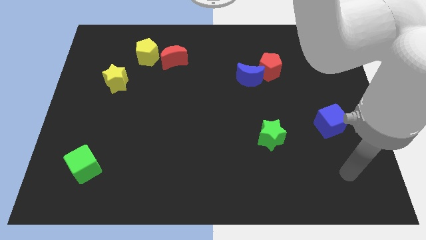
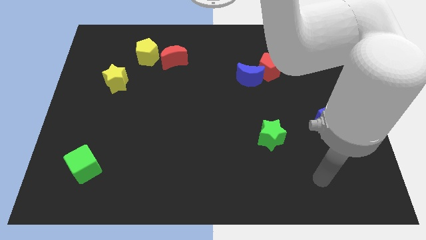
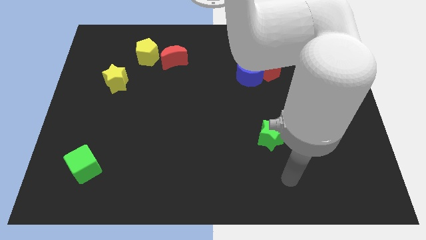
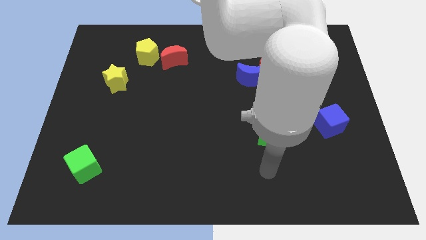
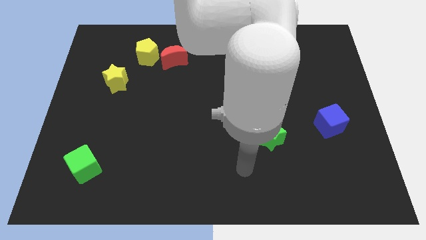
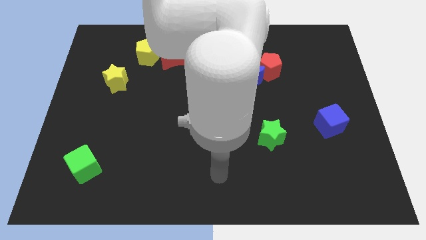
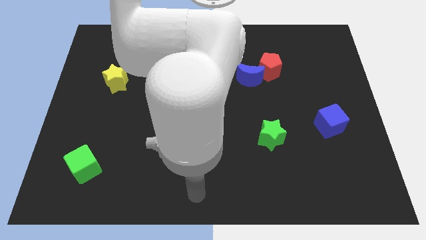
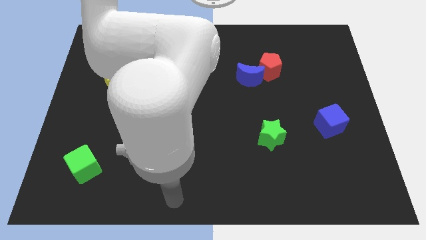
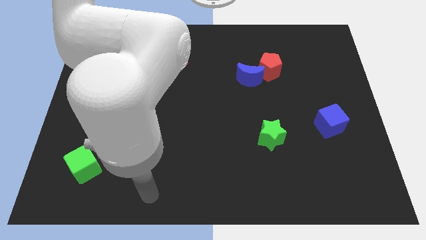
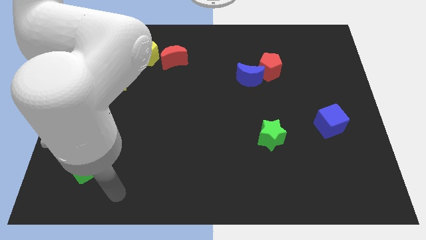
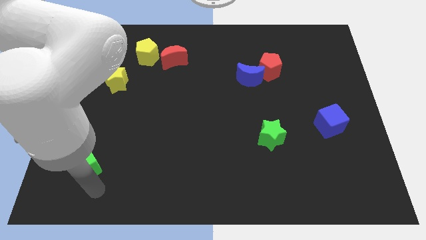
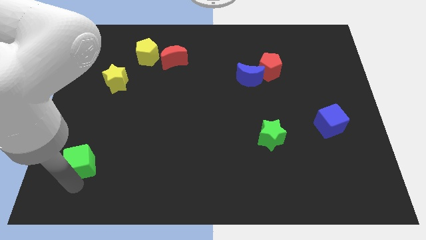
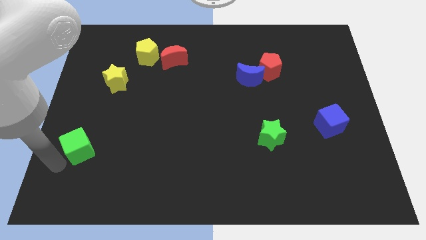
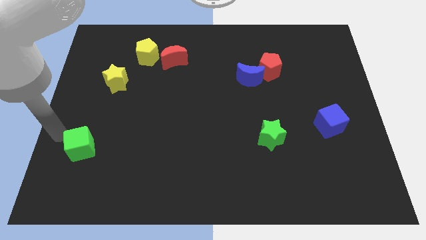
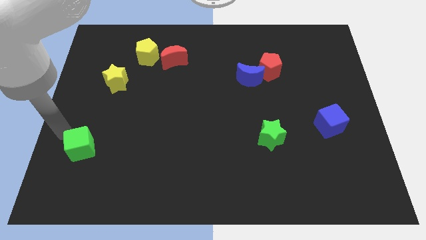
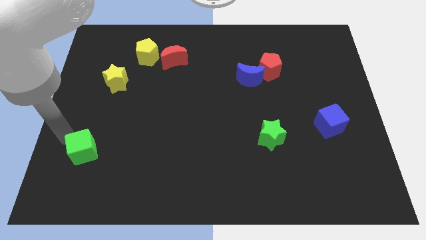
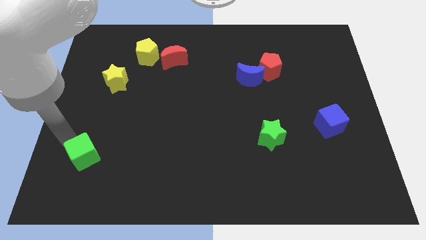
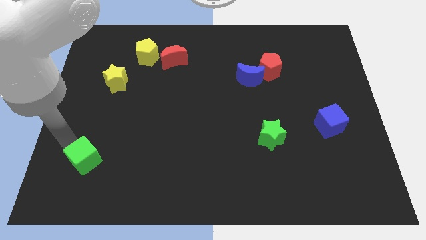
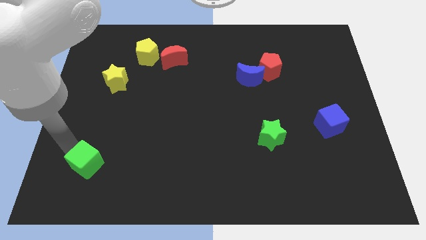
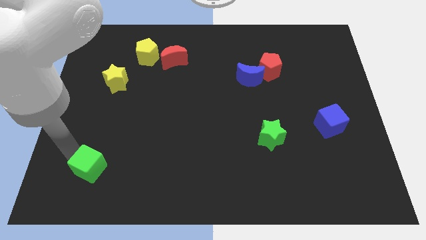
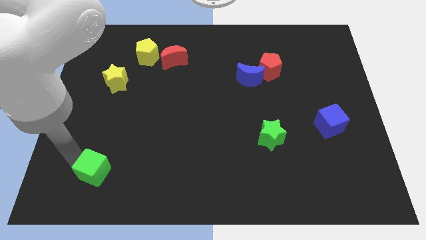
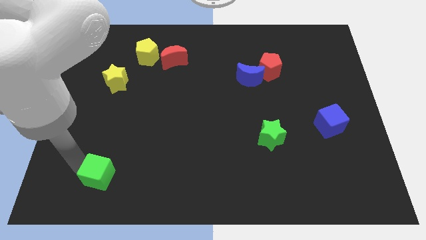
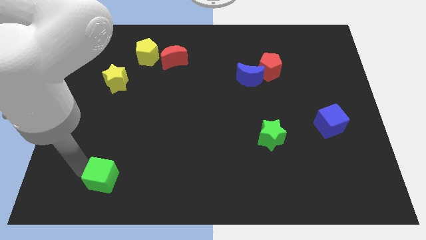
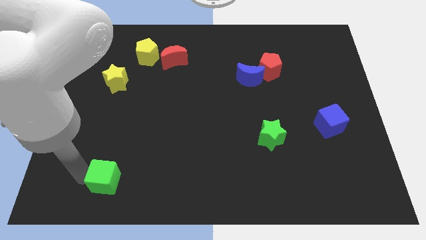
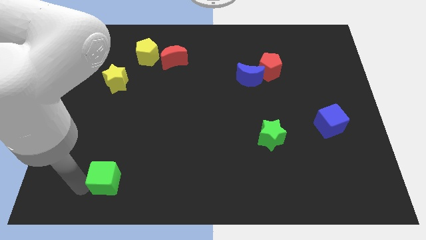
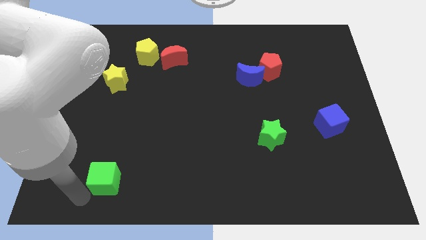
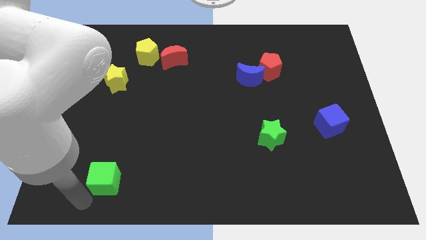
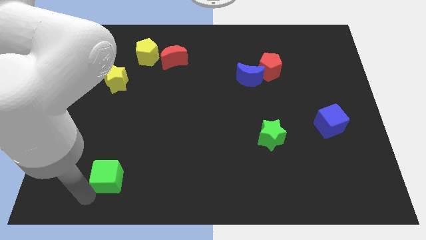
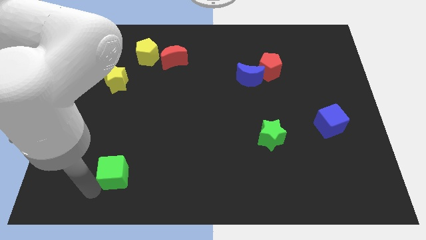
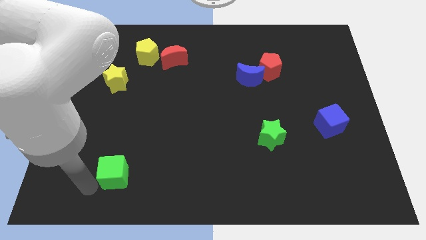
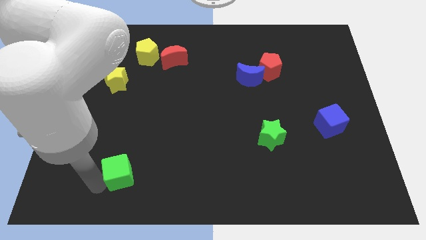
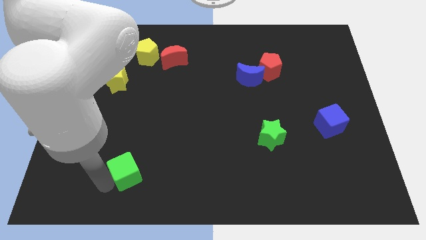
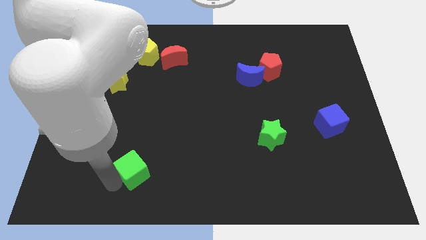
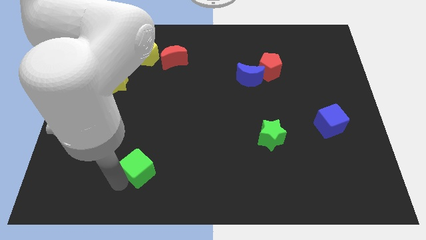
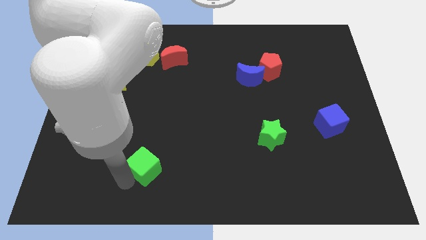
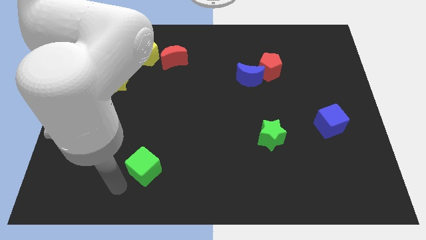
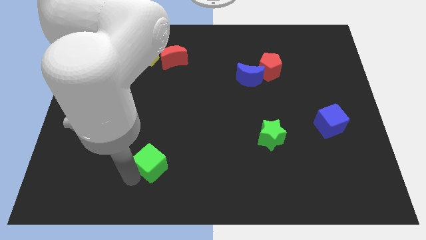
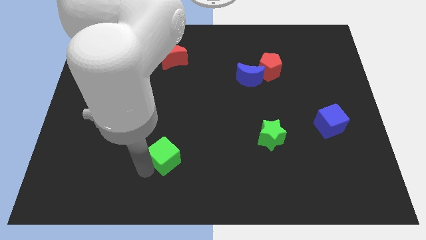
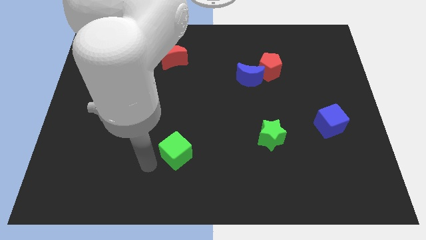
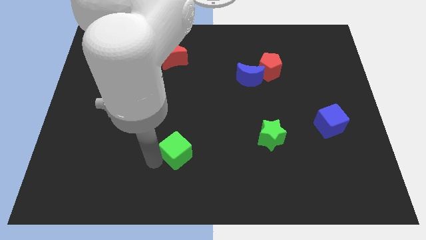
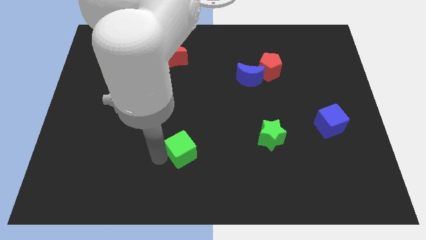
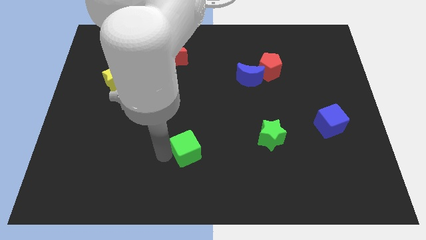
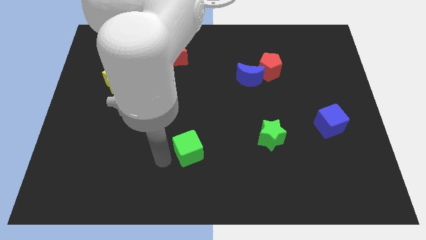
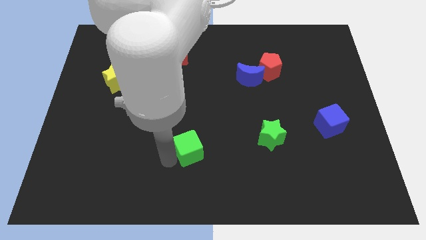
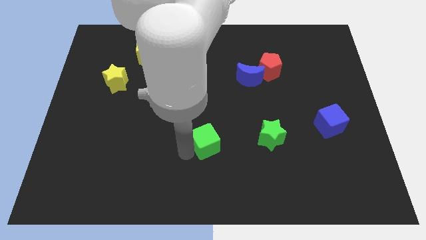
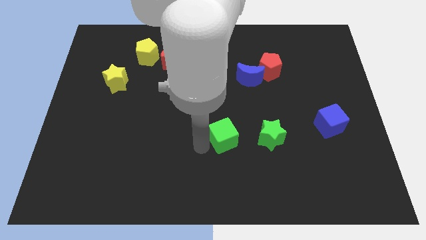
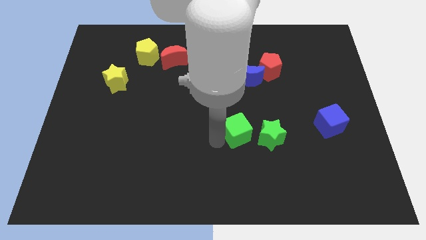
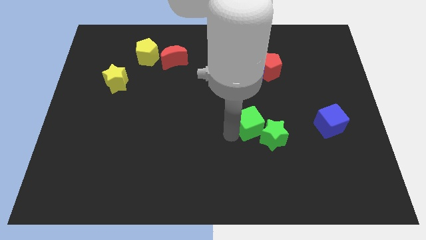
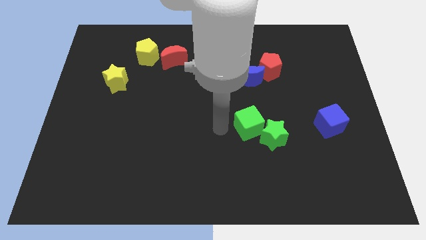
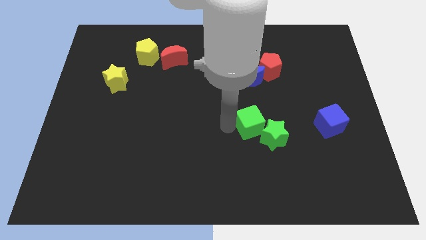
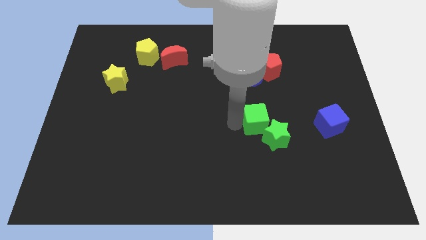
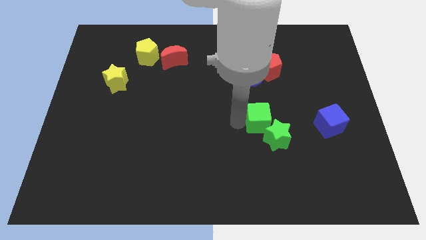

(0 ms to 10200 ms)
put the green cube just left of the blue cube

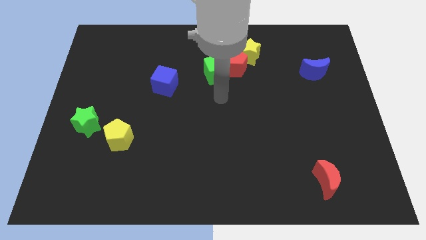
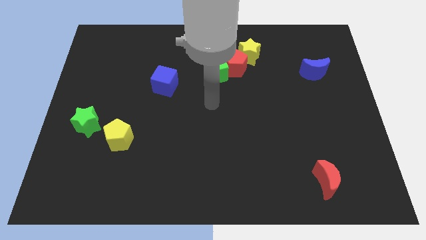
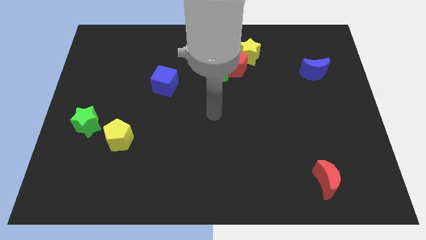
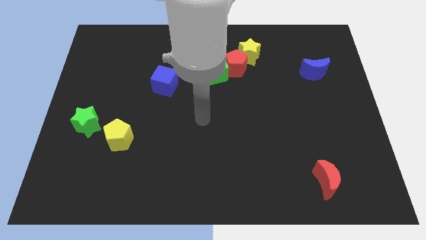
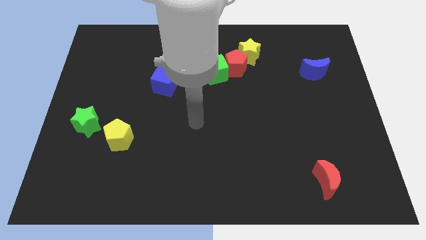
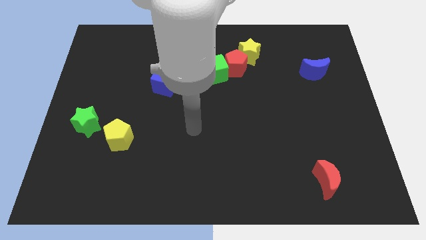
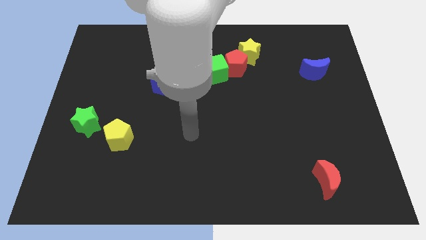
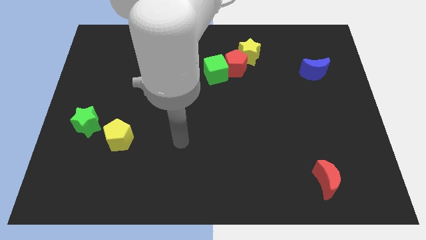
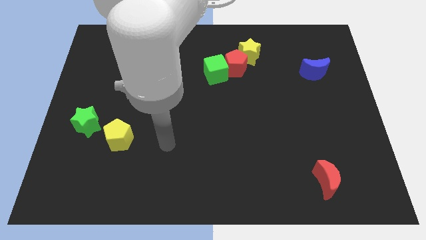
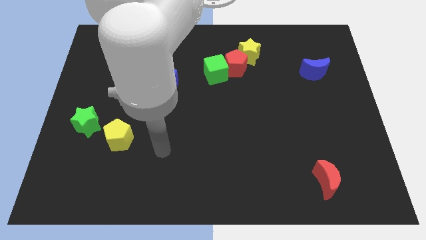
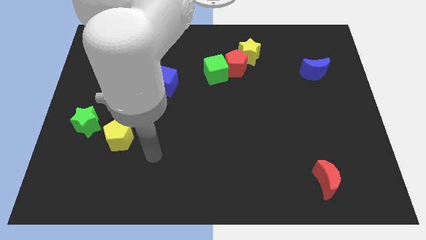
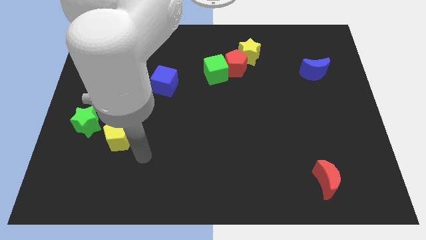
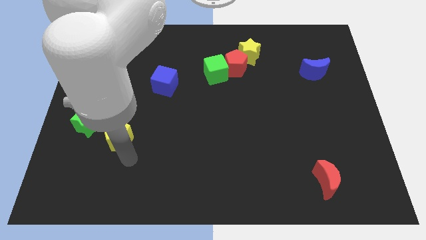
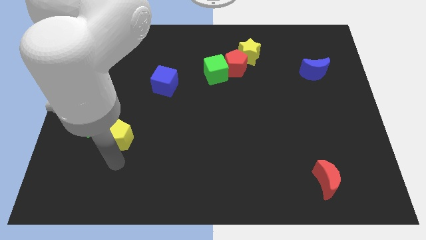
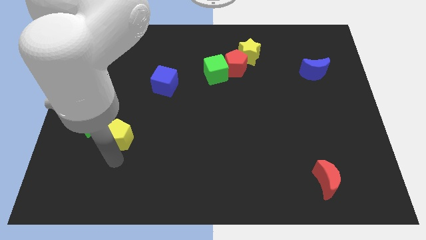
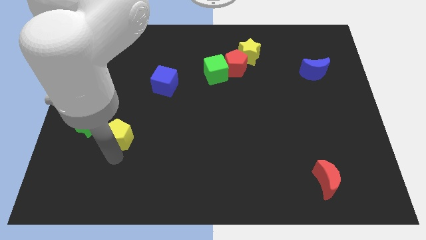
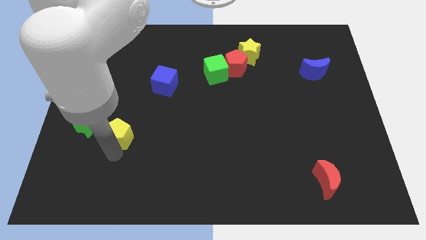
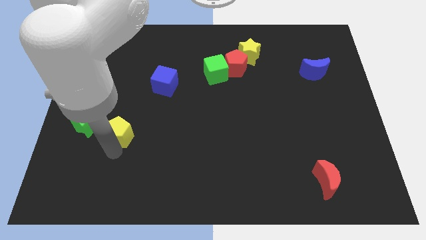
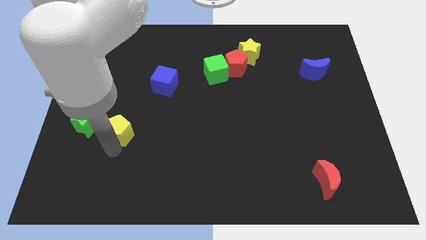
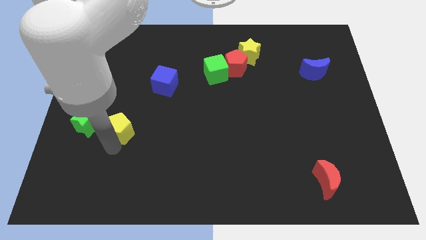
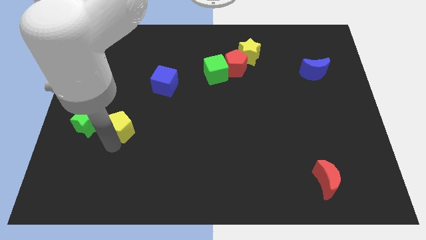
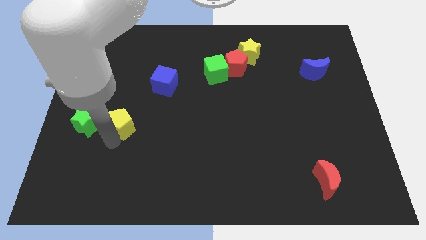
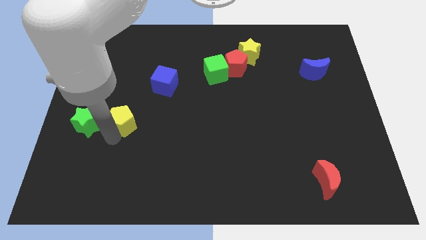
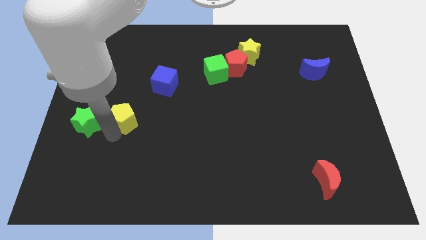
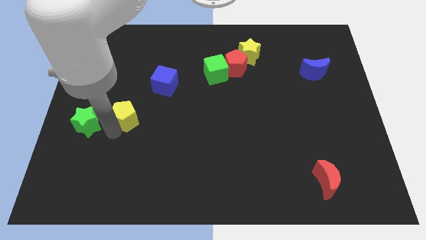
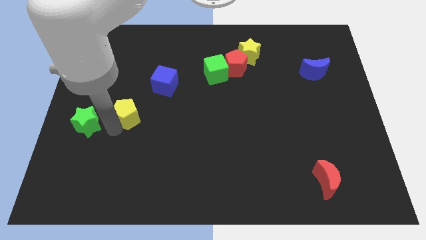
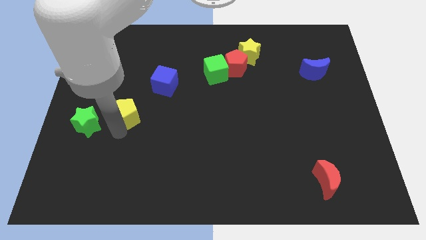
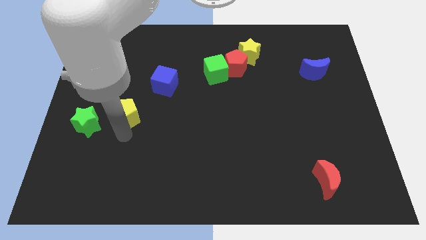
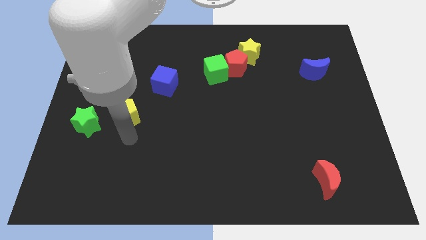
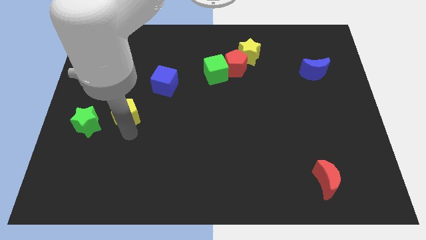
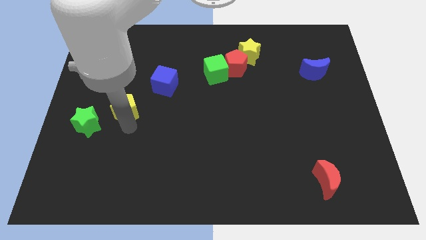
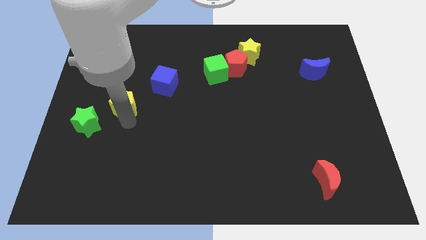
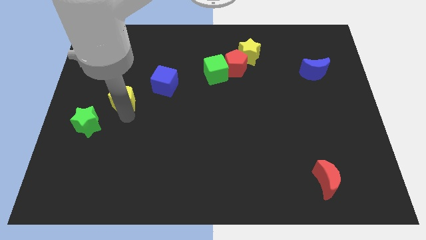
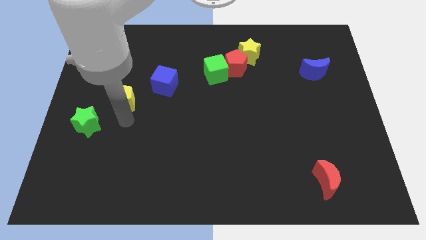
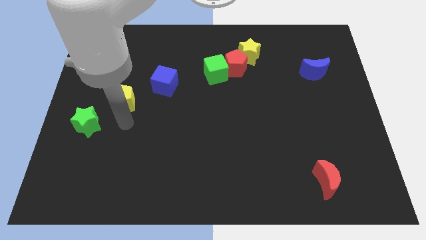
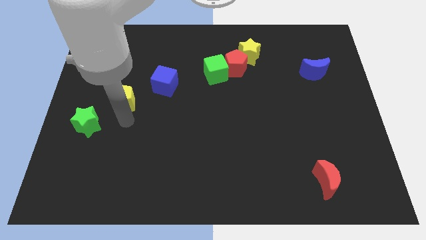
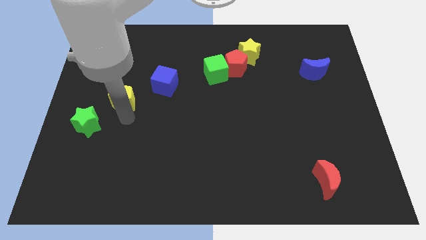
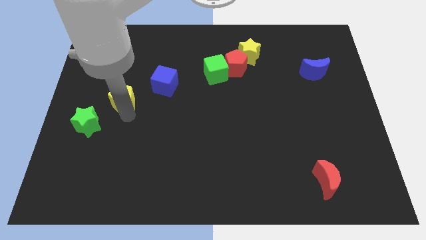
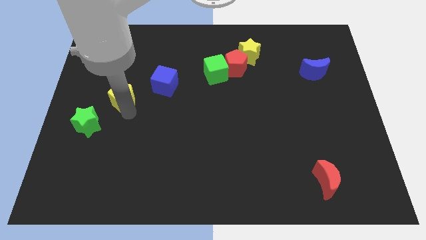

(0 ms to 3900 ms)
move the yellow pentagon to the left side of the blue cube
